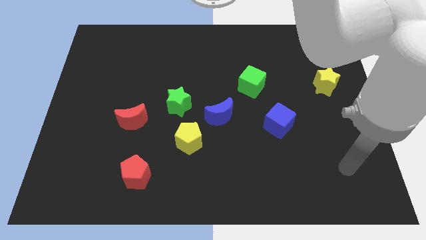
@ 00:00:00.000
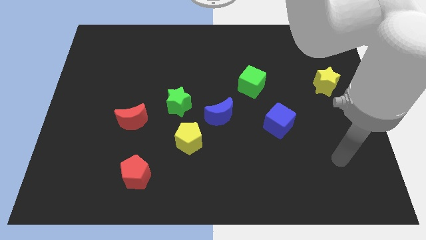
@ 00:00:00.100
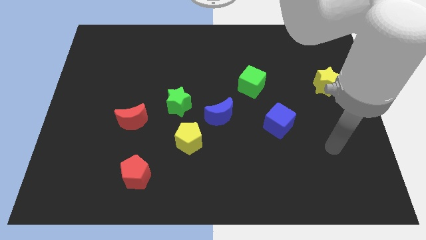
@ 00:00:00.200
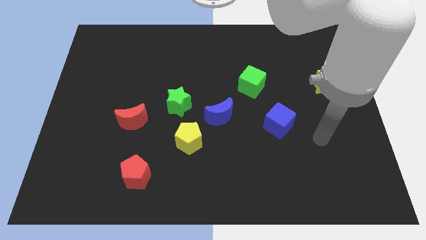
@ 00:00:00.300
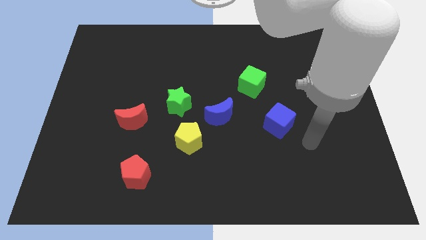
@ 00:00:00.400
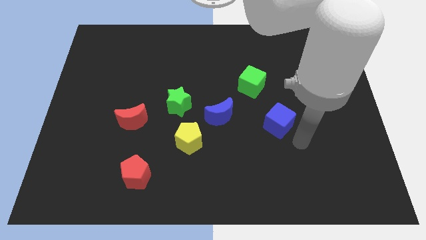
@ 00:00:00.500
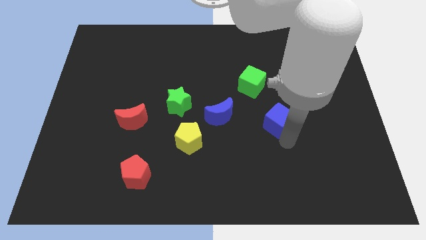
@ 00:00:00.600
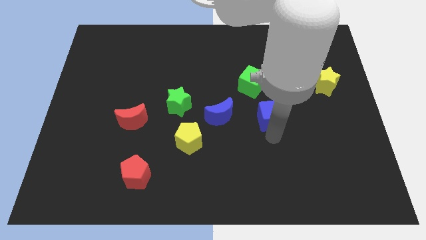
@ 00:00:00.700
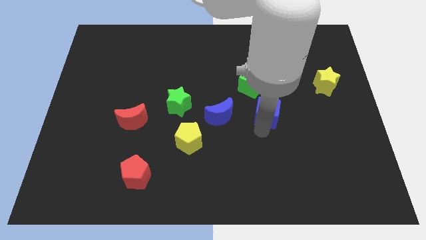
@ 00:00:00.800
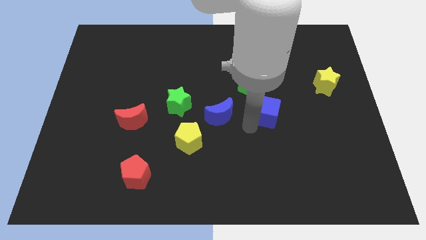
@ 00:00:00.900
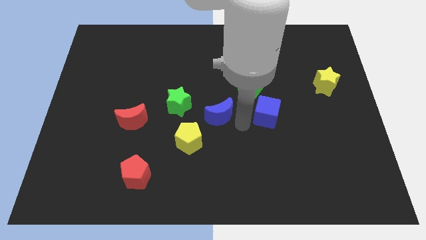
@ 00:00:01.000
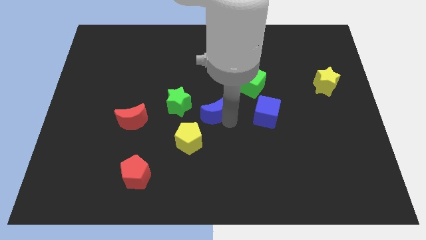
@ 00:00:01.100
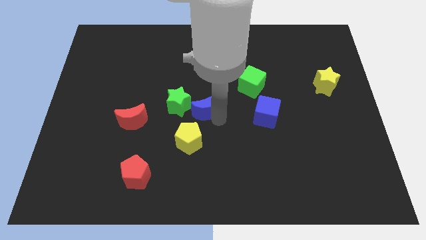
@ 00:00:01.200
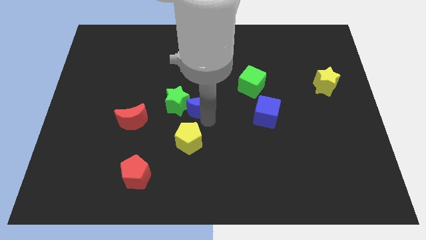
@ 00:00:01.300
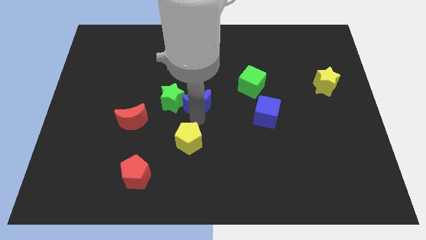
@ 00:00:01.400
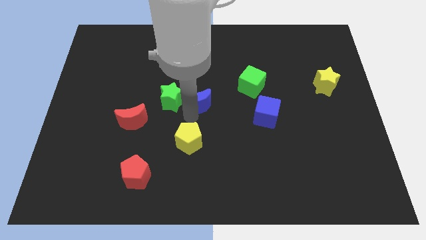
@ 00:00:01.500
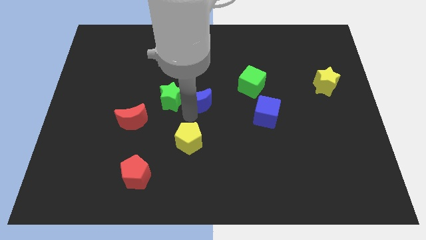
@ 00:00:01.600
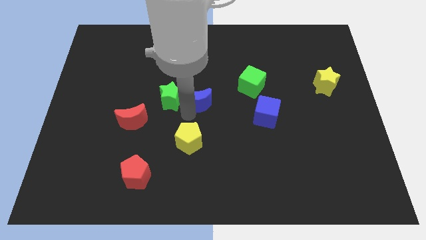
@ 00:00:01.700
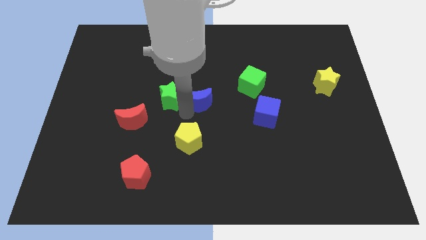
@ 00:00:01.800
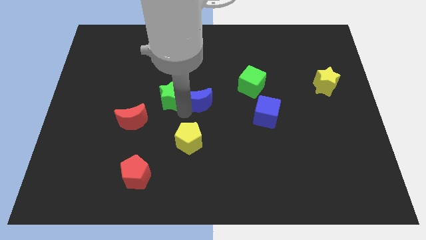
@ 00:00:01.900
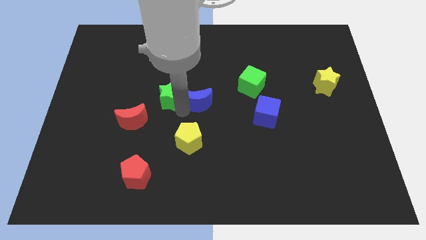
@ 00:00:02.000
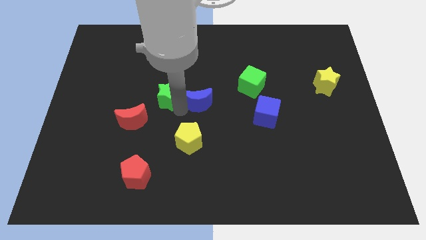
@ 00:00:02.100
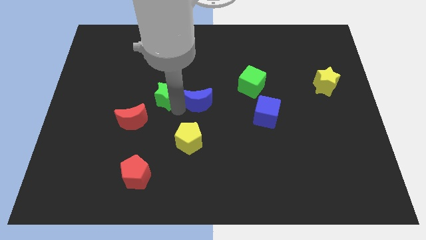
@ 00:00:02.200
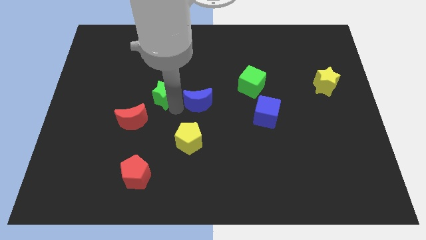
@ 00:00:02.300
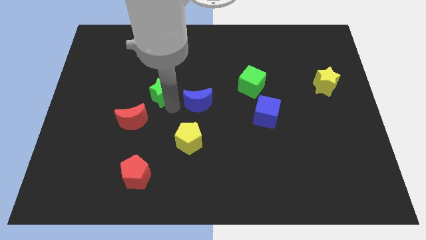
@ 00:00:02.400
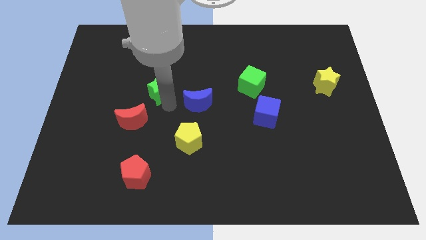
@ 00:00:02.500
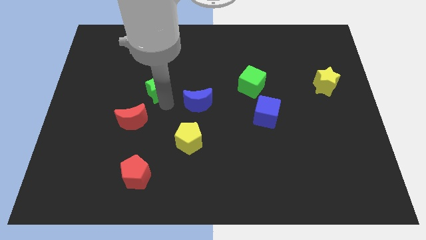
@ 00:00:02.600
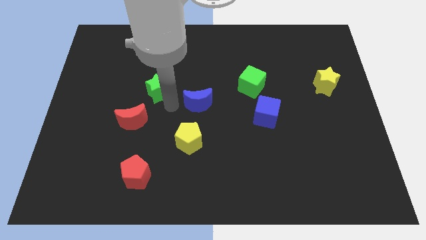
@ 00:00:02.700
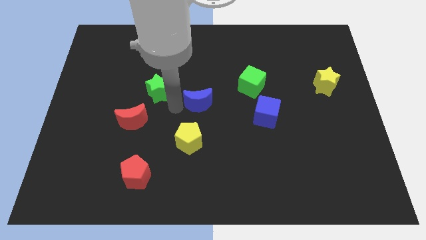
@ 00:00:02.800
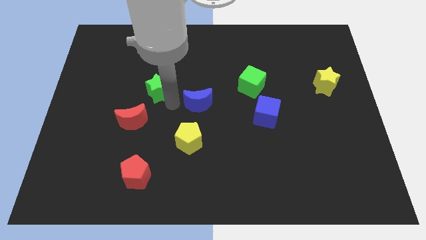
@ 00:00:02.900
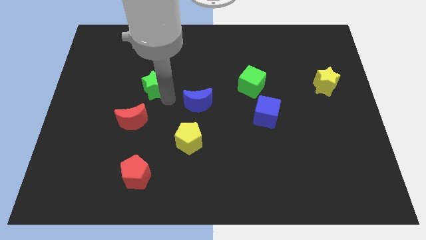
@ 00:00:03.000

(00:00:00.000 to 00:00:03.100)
slide the green star a bit up and to the left diagonally

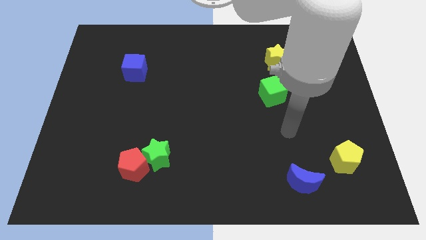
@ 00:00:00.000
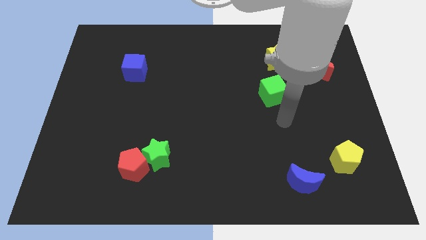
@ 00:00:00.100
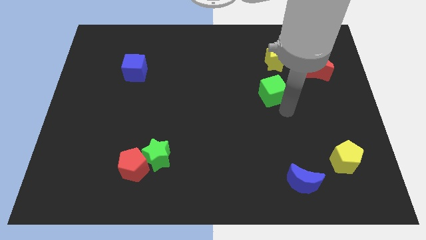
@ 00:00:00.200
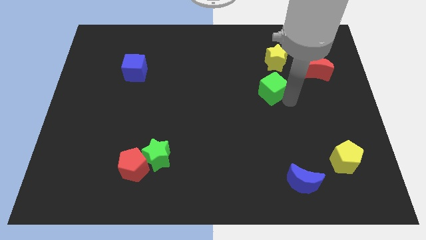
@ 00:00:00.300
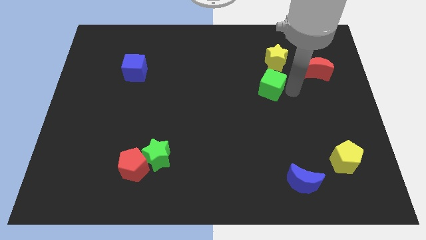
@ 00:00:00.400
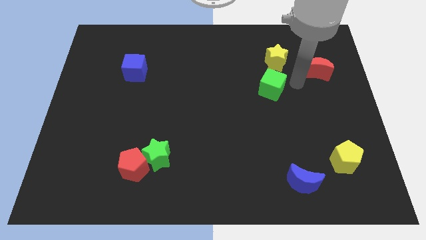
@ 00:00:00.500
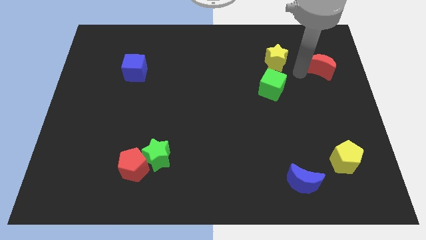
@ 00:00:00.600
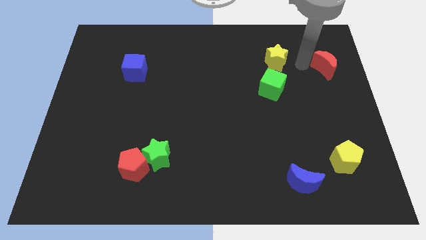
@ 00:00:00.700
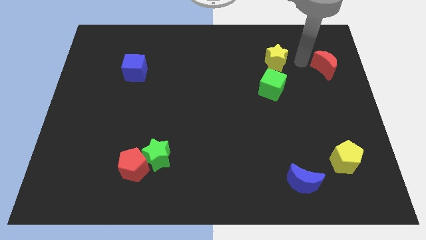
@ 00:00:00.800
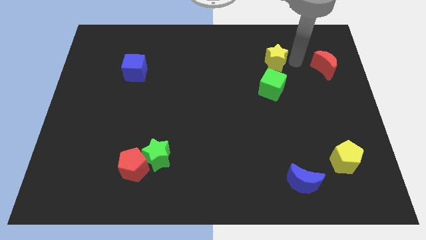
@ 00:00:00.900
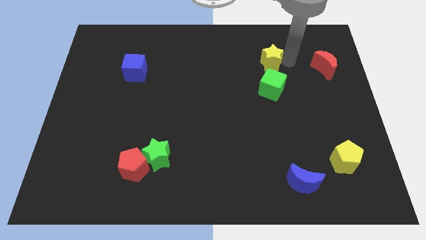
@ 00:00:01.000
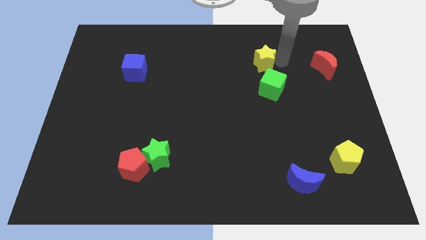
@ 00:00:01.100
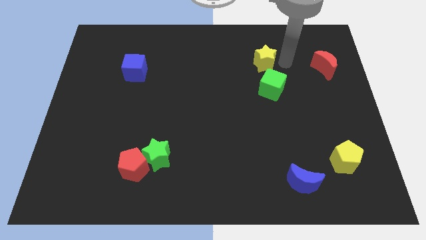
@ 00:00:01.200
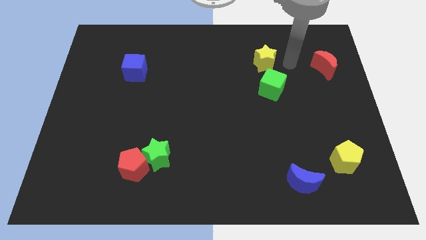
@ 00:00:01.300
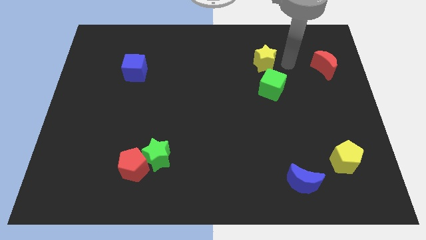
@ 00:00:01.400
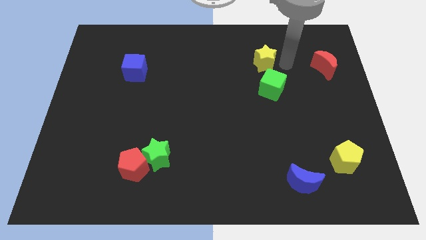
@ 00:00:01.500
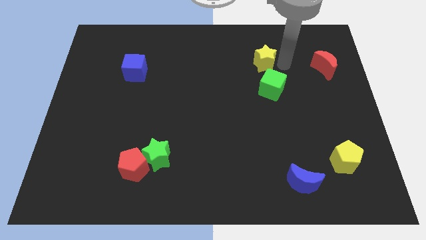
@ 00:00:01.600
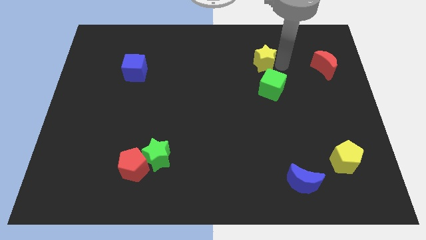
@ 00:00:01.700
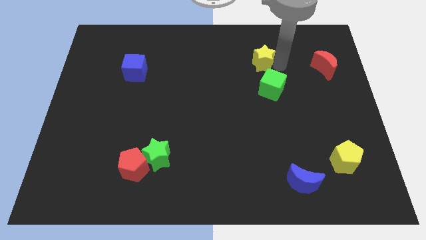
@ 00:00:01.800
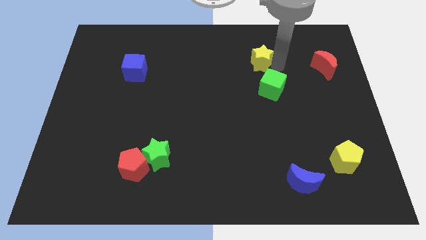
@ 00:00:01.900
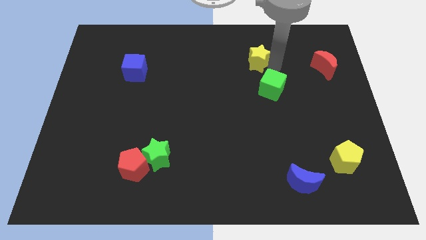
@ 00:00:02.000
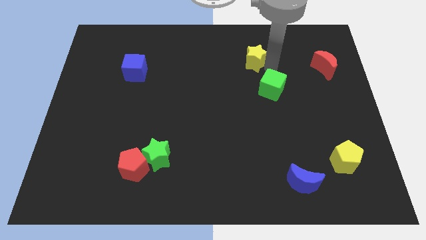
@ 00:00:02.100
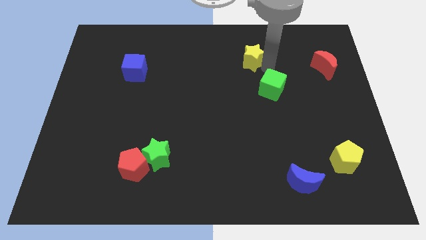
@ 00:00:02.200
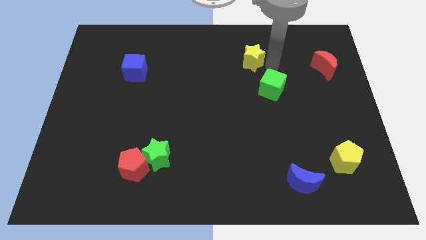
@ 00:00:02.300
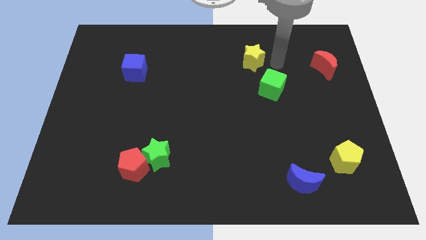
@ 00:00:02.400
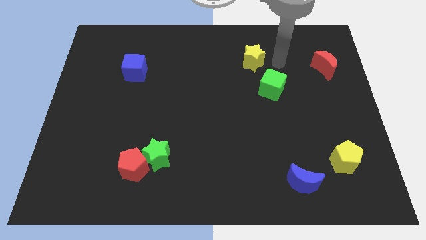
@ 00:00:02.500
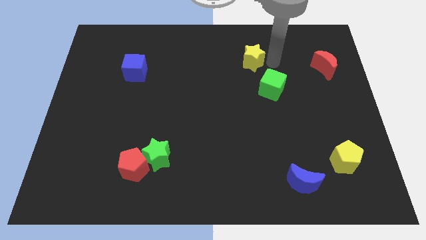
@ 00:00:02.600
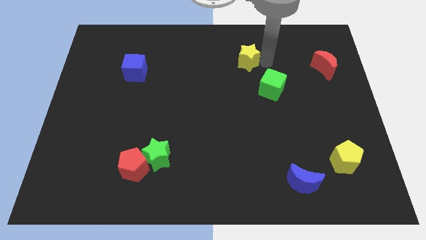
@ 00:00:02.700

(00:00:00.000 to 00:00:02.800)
slightly move the yellow star to the left

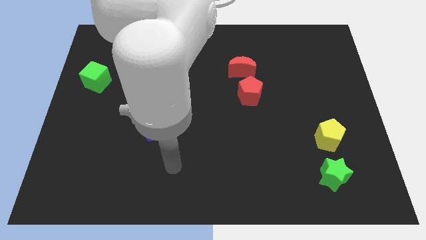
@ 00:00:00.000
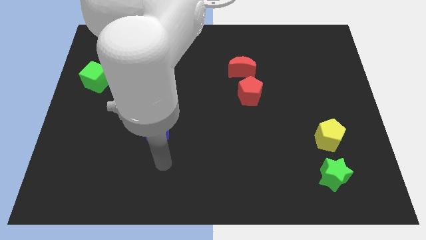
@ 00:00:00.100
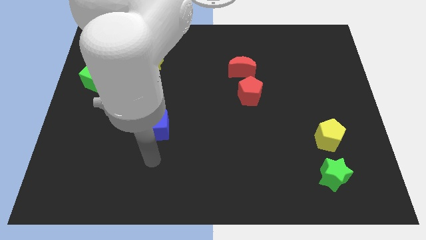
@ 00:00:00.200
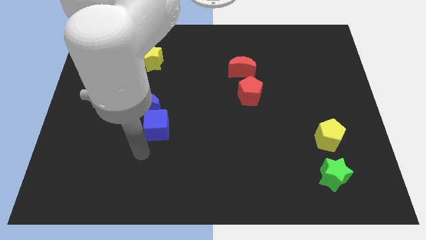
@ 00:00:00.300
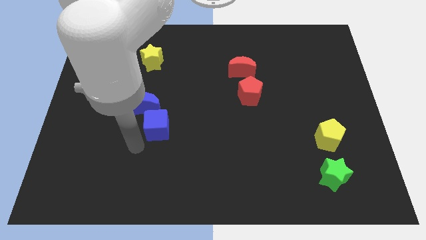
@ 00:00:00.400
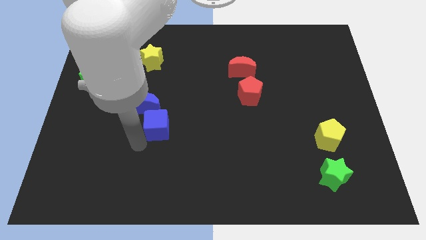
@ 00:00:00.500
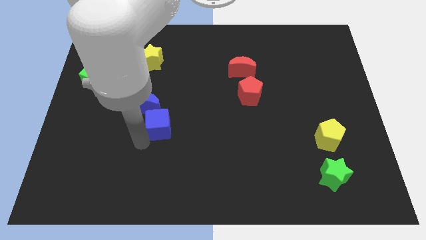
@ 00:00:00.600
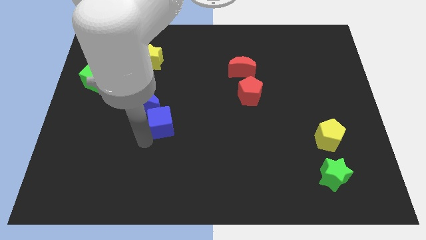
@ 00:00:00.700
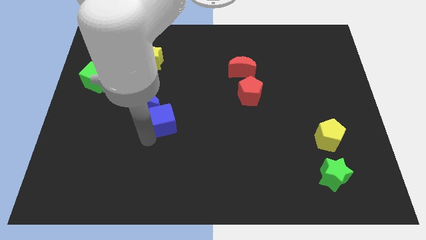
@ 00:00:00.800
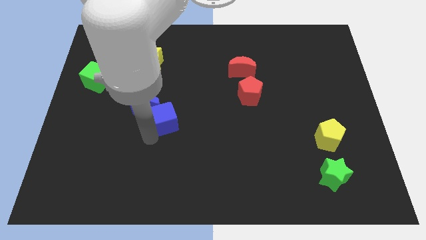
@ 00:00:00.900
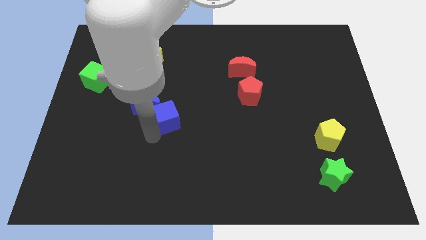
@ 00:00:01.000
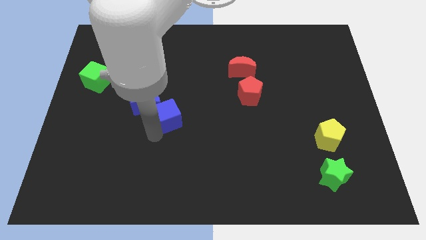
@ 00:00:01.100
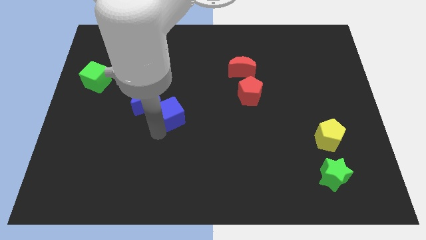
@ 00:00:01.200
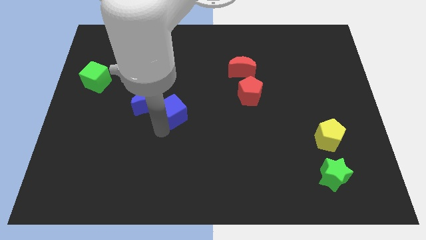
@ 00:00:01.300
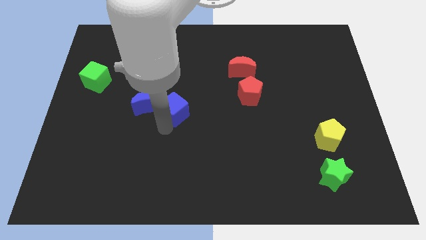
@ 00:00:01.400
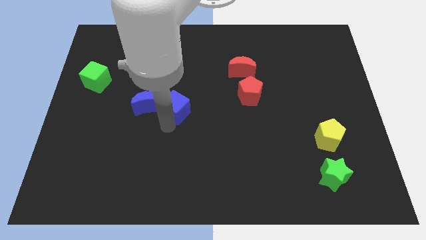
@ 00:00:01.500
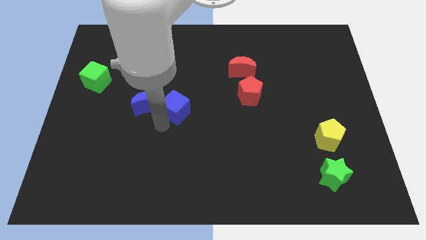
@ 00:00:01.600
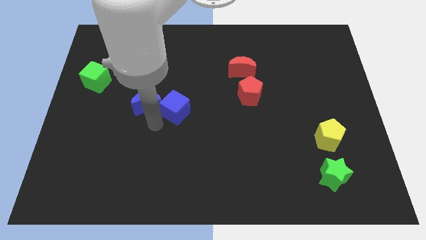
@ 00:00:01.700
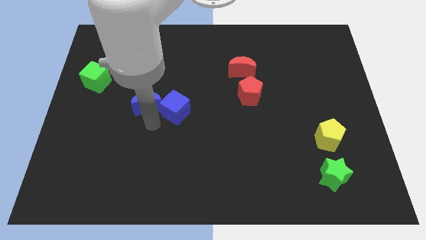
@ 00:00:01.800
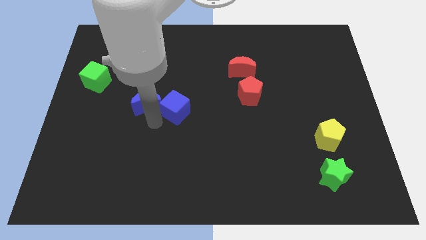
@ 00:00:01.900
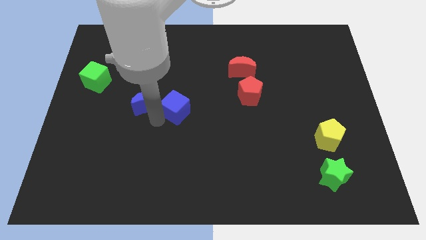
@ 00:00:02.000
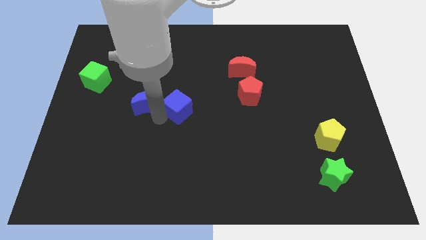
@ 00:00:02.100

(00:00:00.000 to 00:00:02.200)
push the blue cube up and right diagonally a bit

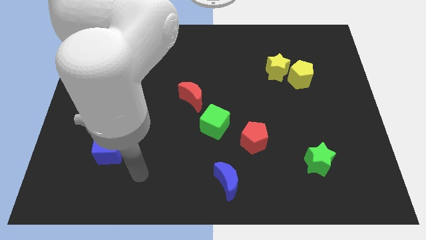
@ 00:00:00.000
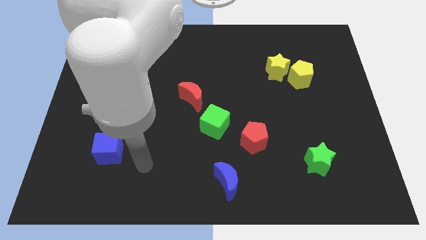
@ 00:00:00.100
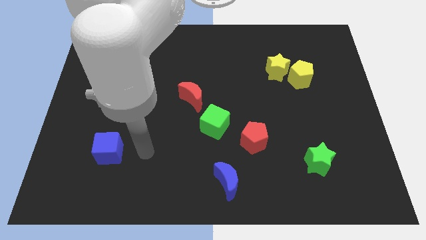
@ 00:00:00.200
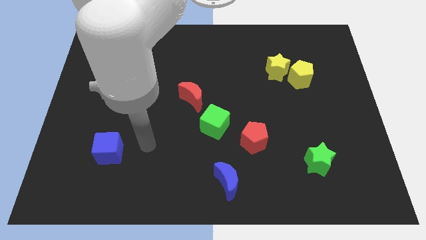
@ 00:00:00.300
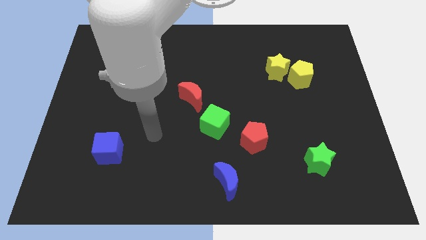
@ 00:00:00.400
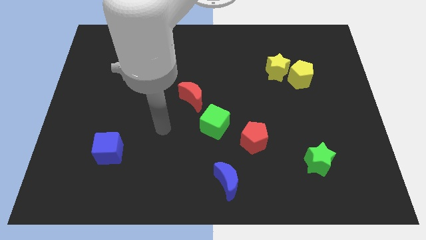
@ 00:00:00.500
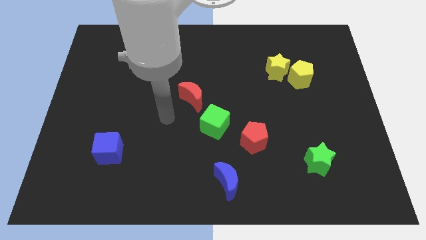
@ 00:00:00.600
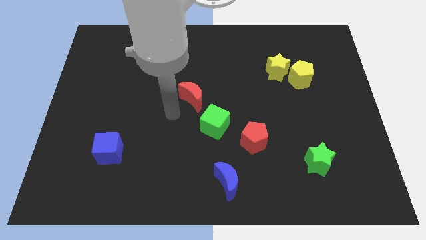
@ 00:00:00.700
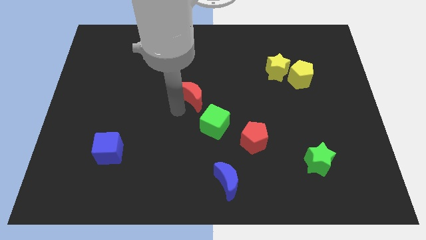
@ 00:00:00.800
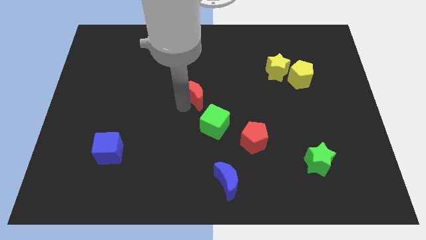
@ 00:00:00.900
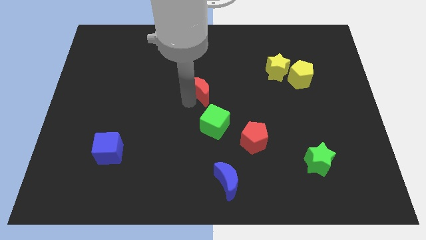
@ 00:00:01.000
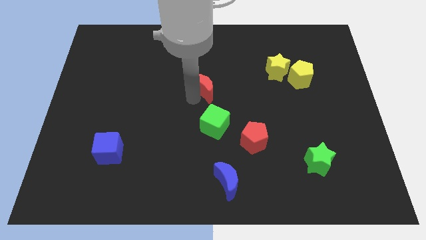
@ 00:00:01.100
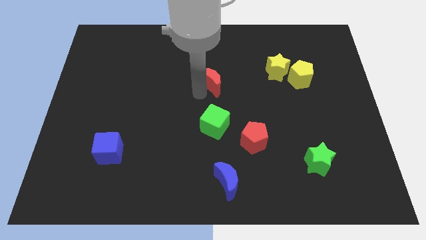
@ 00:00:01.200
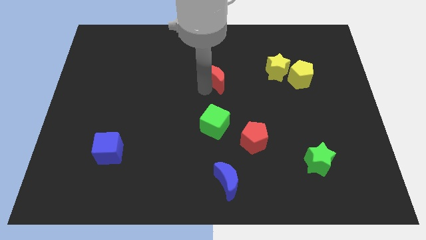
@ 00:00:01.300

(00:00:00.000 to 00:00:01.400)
move the red moon slightly up and then to the right
